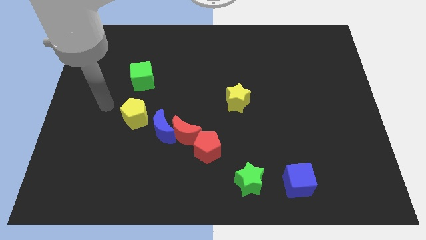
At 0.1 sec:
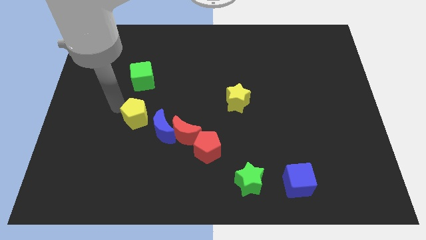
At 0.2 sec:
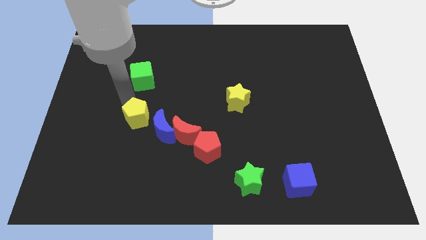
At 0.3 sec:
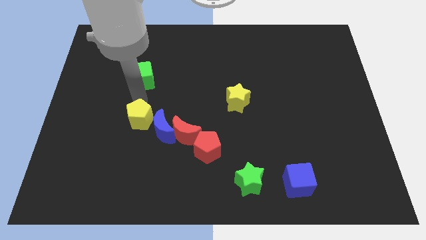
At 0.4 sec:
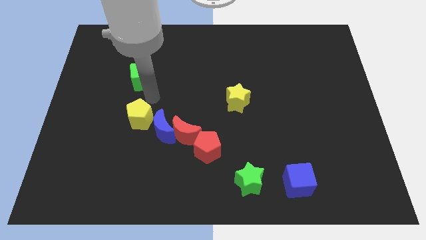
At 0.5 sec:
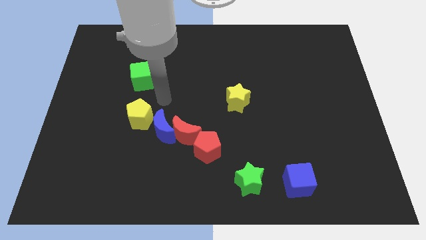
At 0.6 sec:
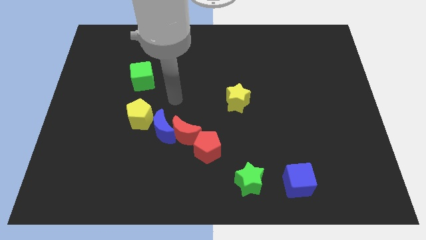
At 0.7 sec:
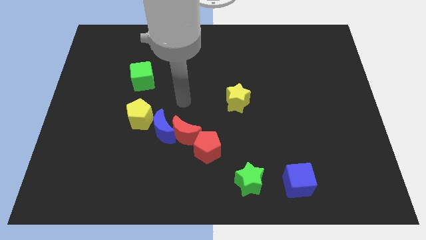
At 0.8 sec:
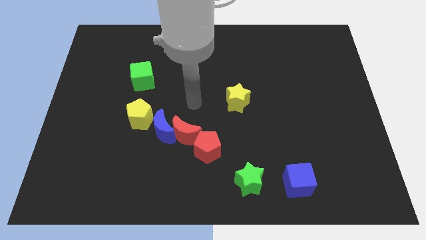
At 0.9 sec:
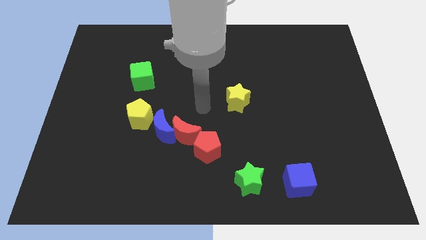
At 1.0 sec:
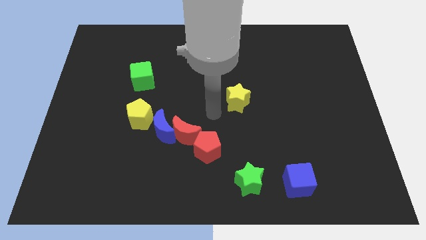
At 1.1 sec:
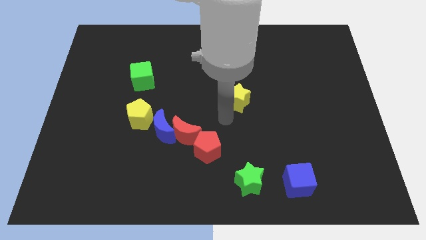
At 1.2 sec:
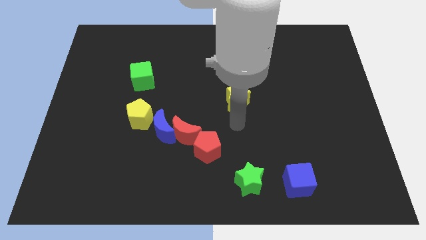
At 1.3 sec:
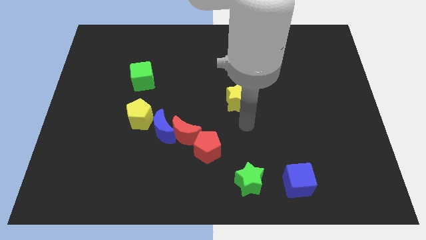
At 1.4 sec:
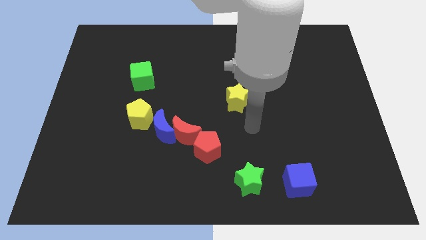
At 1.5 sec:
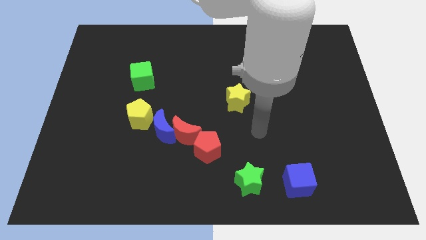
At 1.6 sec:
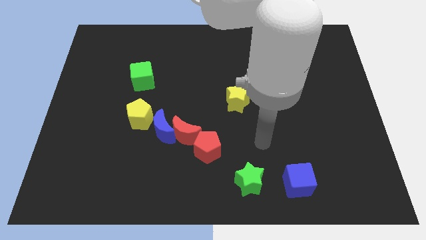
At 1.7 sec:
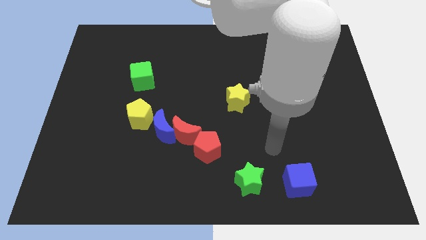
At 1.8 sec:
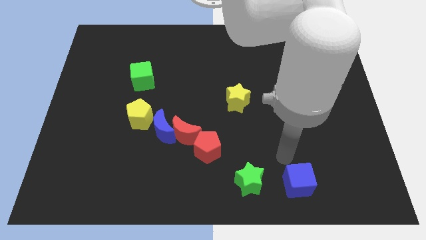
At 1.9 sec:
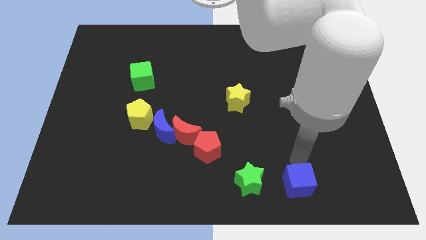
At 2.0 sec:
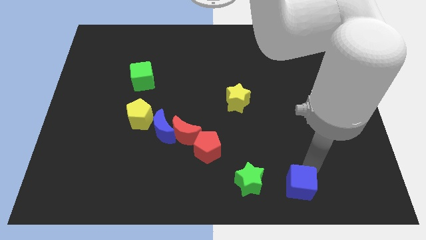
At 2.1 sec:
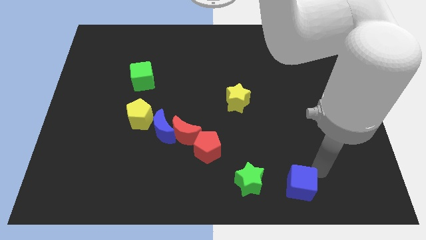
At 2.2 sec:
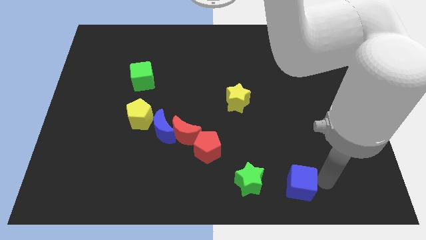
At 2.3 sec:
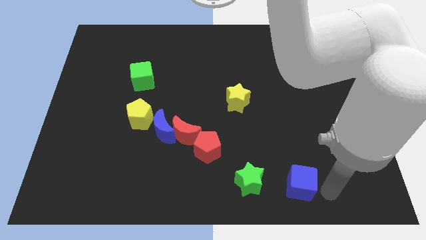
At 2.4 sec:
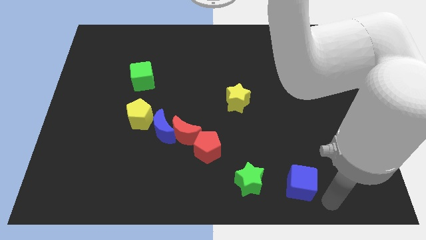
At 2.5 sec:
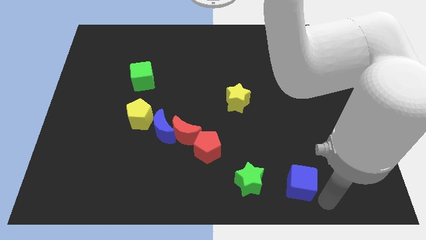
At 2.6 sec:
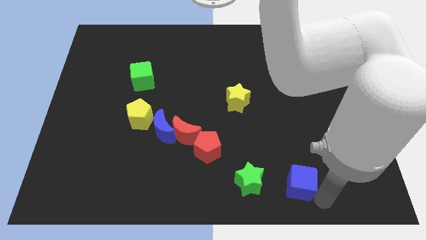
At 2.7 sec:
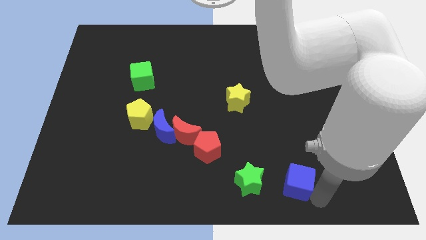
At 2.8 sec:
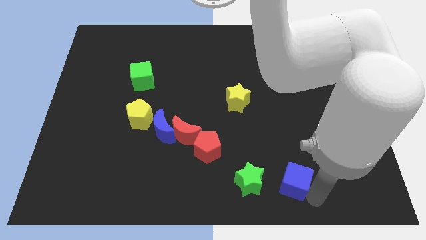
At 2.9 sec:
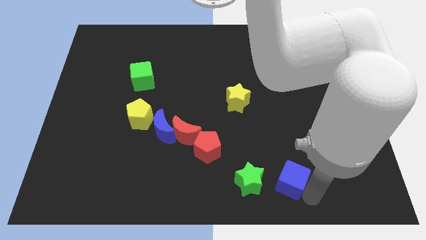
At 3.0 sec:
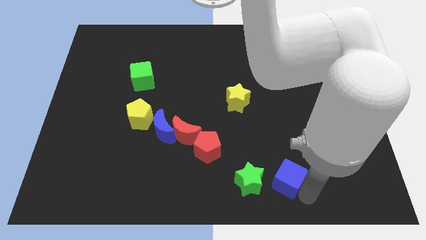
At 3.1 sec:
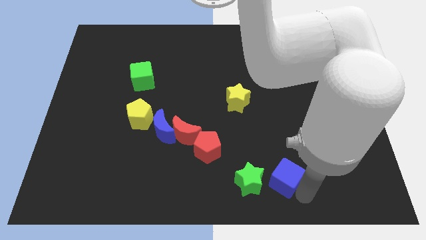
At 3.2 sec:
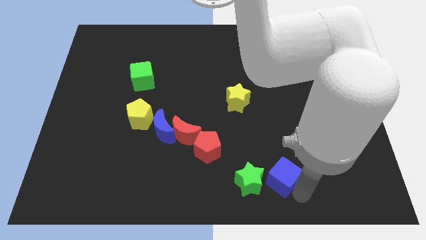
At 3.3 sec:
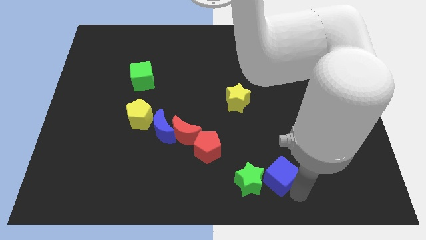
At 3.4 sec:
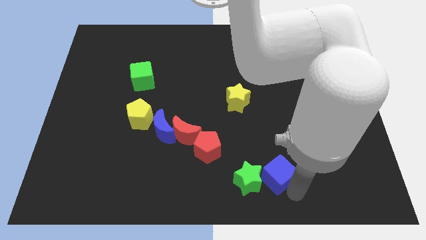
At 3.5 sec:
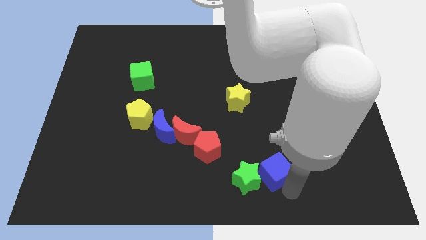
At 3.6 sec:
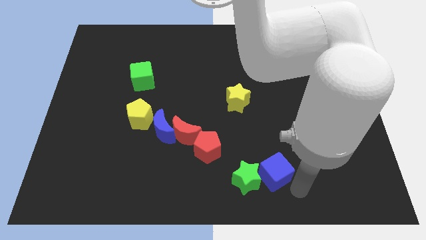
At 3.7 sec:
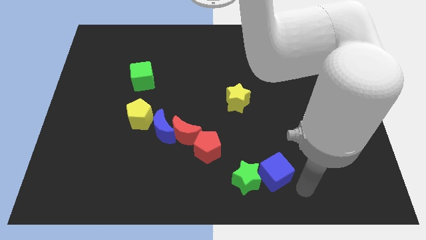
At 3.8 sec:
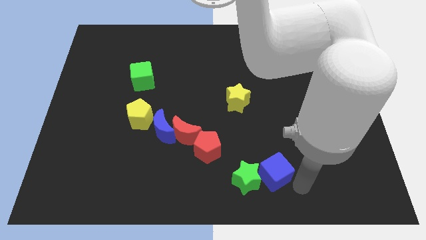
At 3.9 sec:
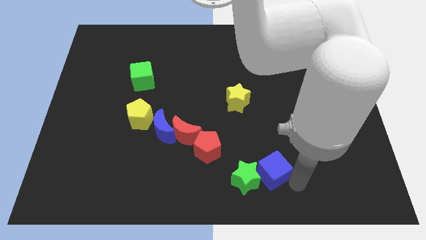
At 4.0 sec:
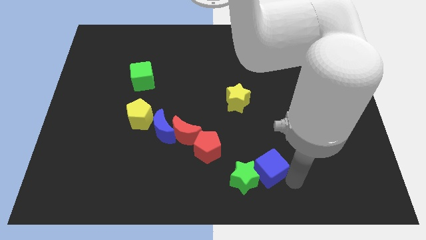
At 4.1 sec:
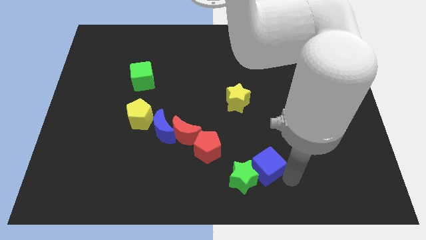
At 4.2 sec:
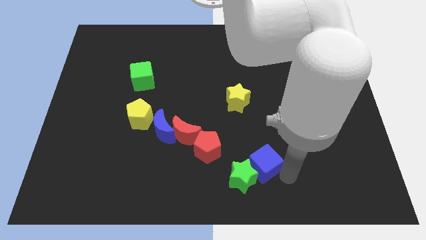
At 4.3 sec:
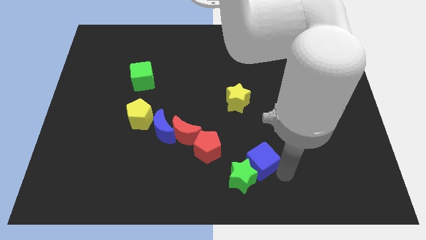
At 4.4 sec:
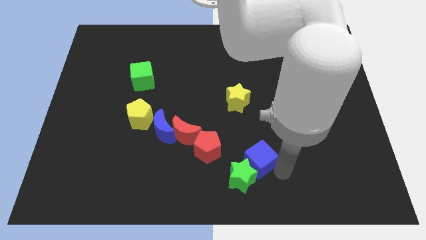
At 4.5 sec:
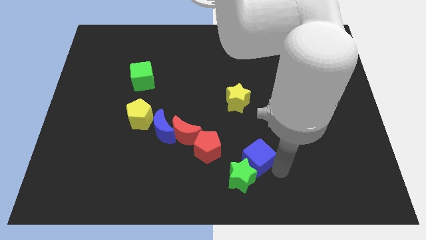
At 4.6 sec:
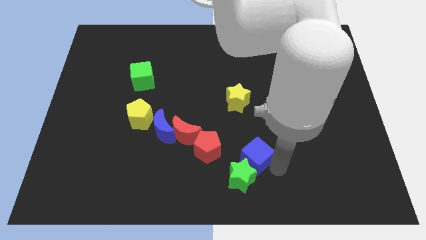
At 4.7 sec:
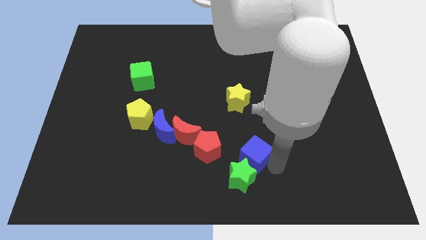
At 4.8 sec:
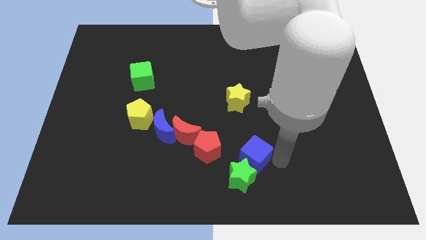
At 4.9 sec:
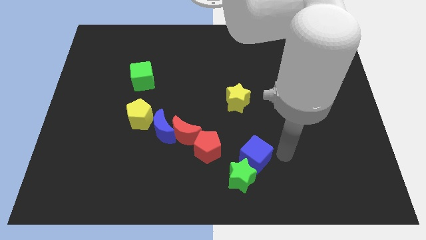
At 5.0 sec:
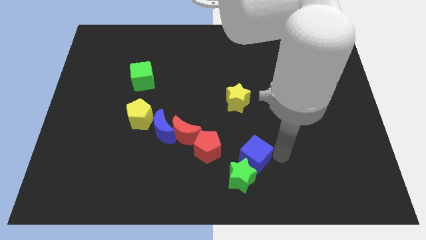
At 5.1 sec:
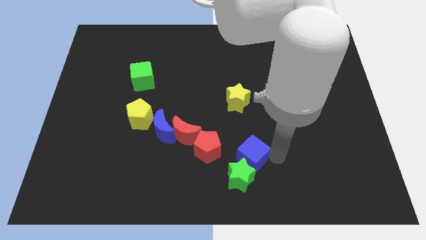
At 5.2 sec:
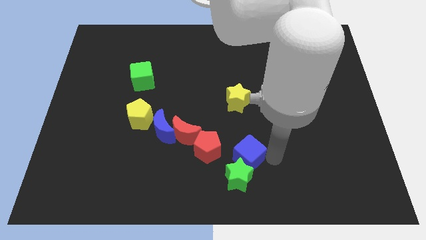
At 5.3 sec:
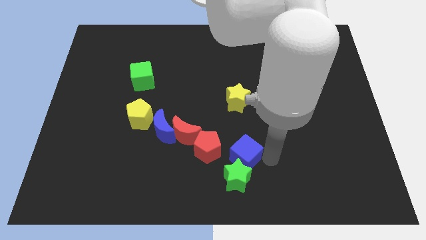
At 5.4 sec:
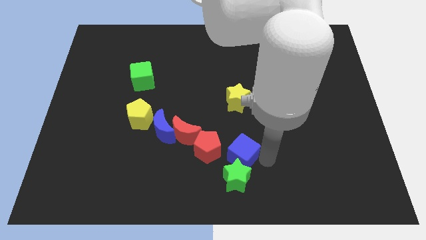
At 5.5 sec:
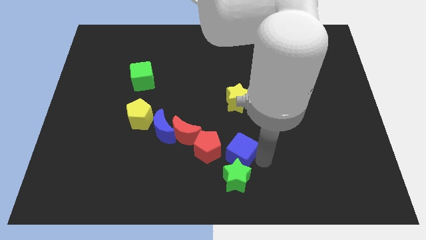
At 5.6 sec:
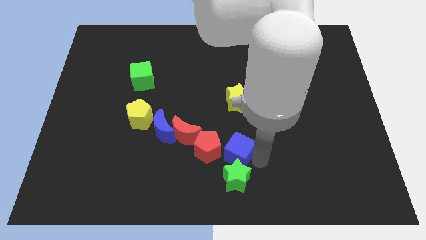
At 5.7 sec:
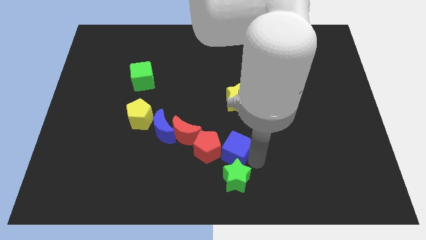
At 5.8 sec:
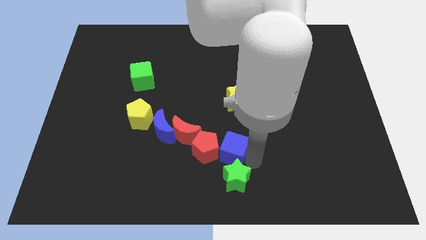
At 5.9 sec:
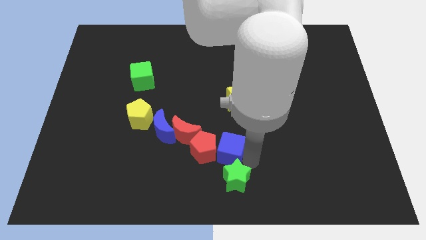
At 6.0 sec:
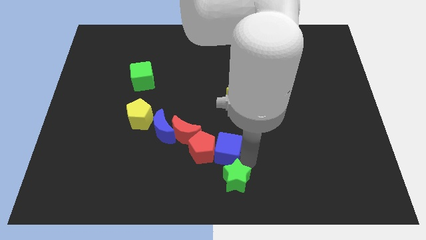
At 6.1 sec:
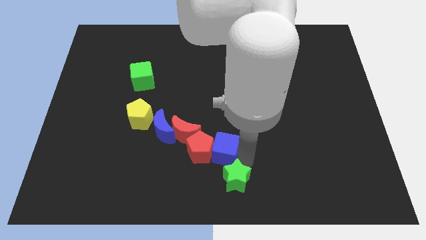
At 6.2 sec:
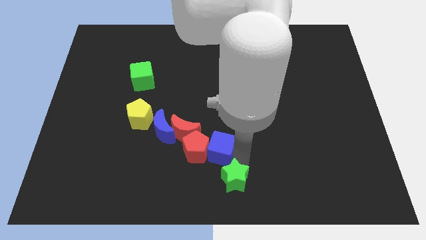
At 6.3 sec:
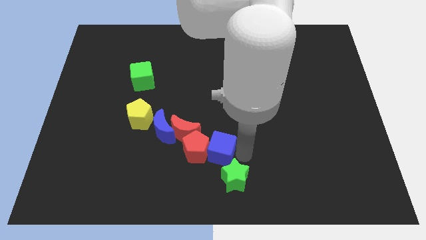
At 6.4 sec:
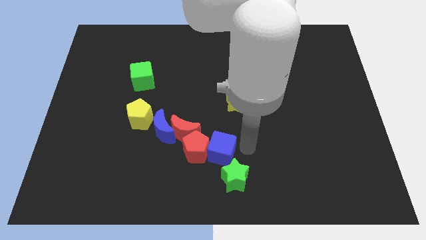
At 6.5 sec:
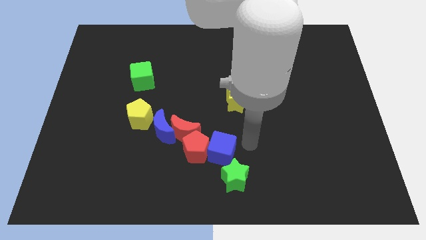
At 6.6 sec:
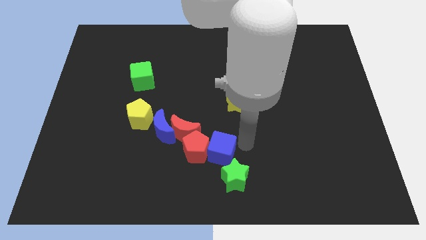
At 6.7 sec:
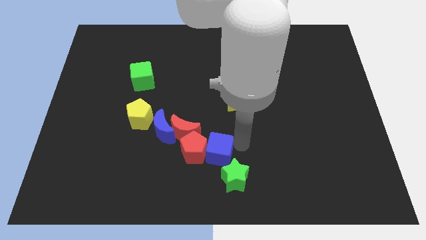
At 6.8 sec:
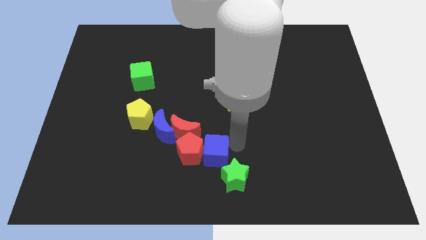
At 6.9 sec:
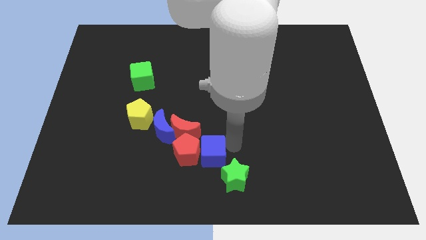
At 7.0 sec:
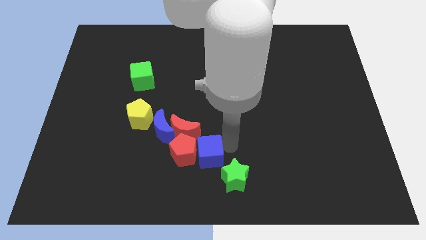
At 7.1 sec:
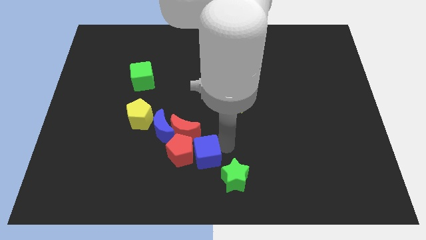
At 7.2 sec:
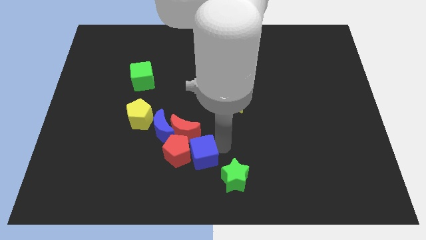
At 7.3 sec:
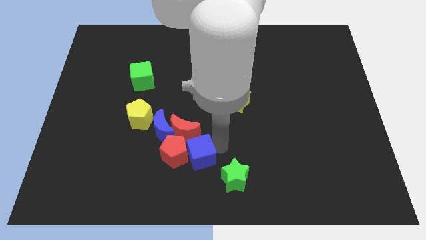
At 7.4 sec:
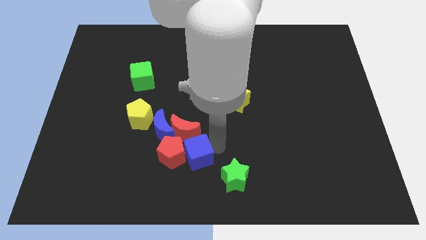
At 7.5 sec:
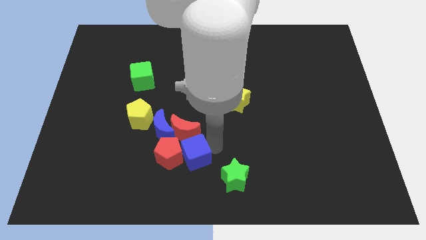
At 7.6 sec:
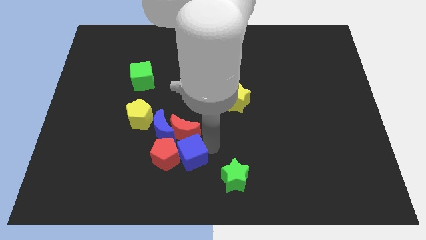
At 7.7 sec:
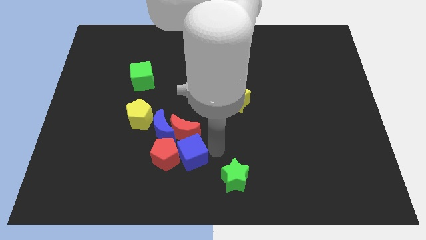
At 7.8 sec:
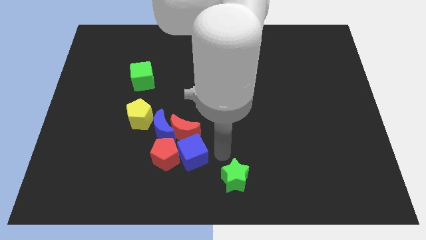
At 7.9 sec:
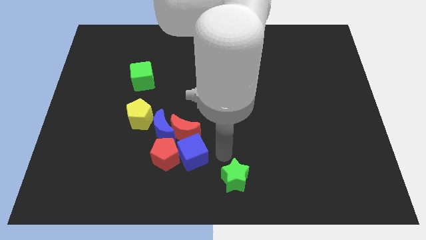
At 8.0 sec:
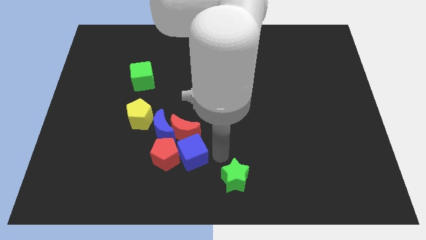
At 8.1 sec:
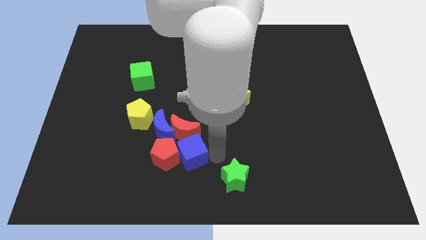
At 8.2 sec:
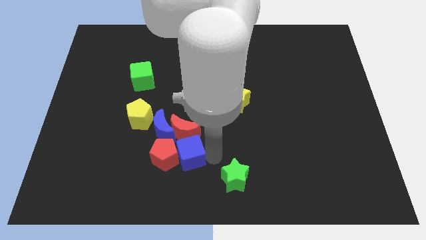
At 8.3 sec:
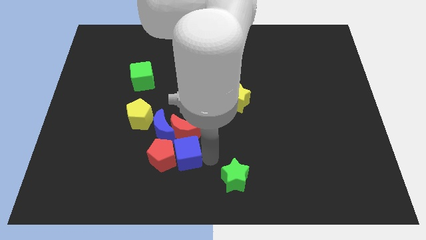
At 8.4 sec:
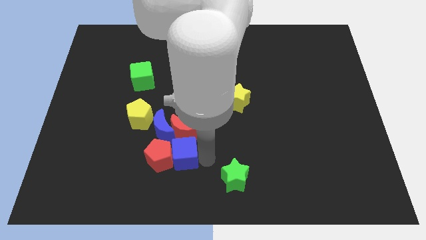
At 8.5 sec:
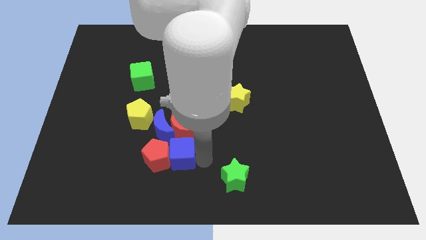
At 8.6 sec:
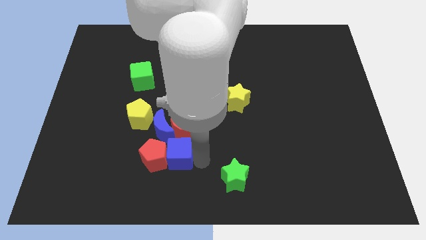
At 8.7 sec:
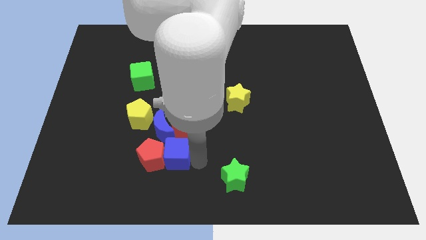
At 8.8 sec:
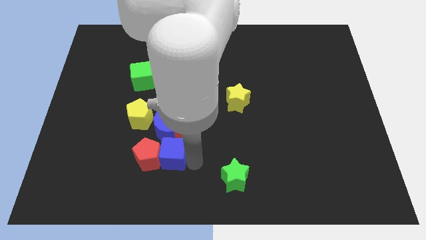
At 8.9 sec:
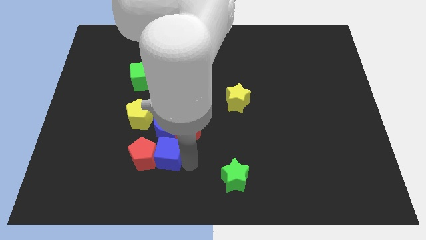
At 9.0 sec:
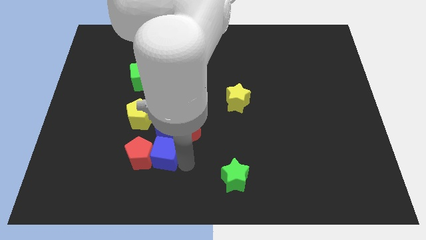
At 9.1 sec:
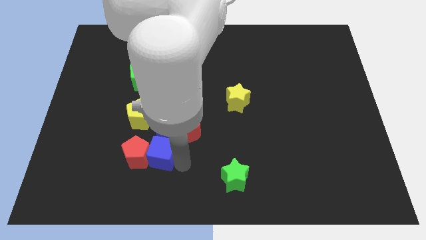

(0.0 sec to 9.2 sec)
slide the blue cube to the bottom left of the blue moon
